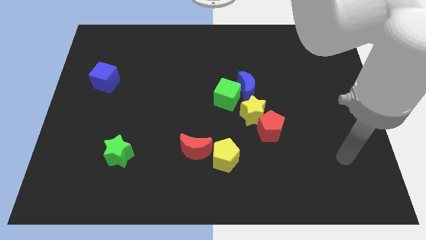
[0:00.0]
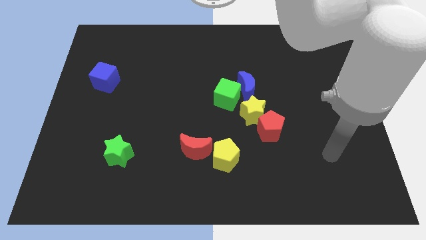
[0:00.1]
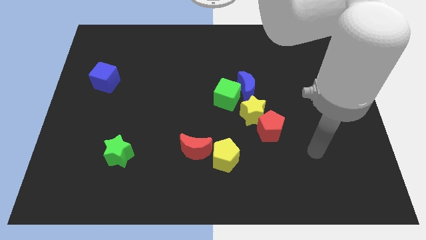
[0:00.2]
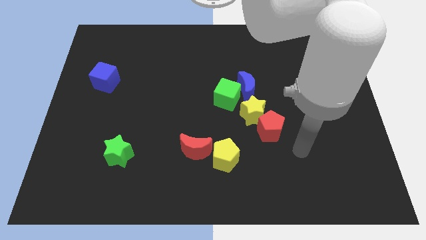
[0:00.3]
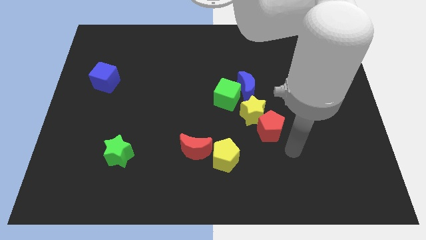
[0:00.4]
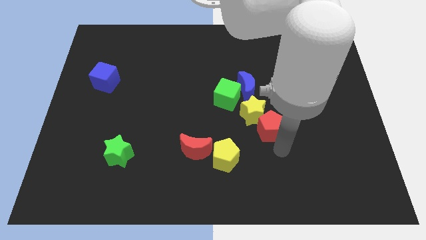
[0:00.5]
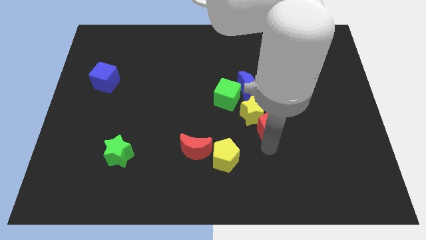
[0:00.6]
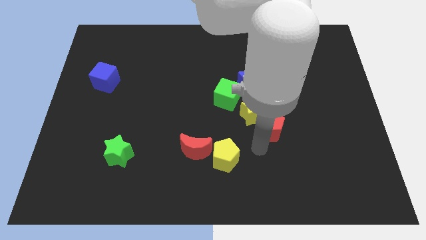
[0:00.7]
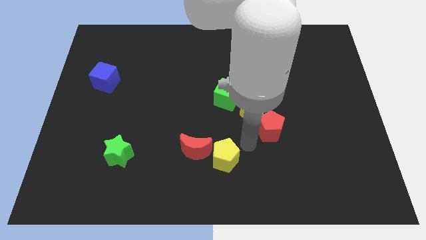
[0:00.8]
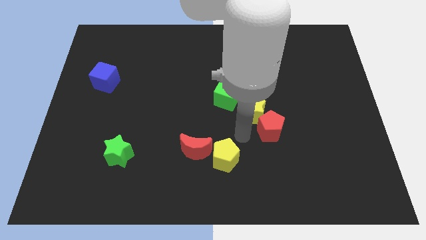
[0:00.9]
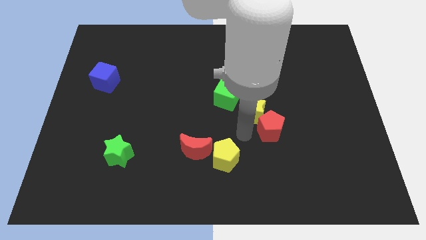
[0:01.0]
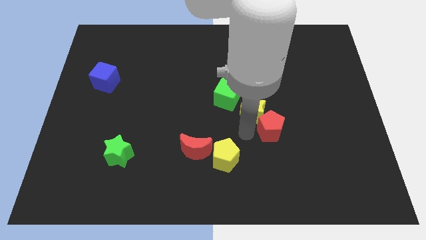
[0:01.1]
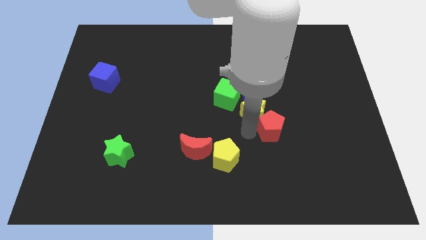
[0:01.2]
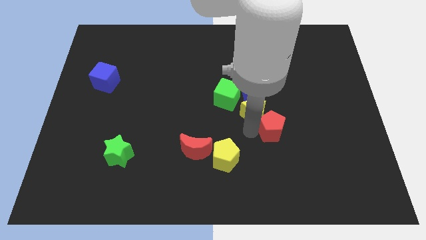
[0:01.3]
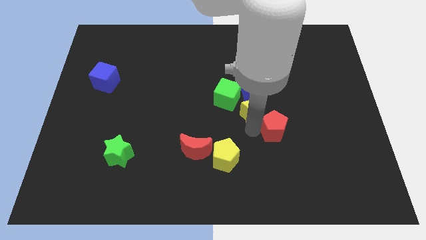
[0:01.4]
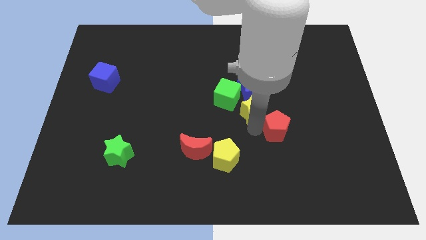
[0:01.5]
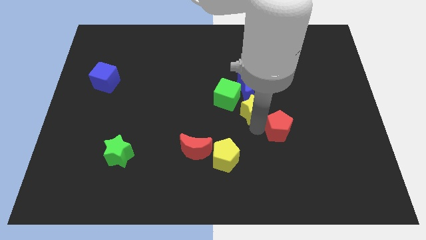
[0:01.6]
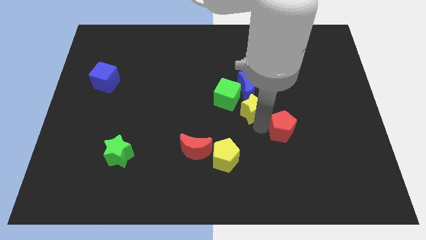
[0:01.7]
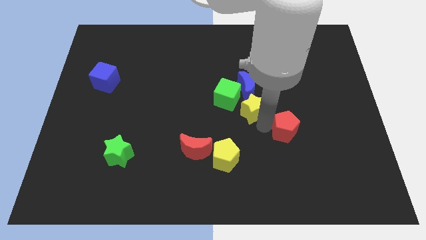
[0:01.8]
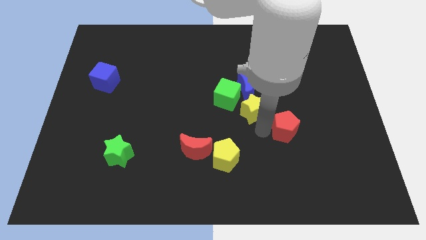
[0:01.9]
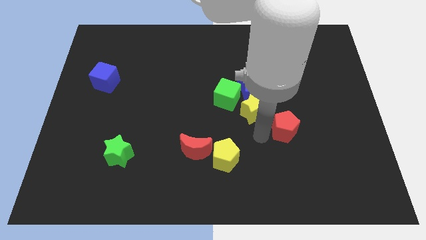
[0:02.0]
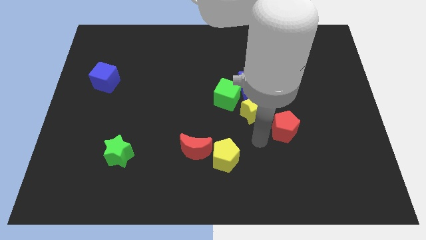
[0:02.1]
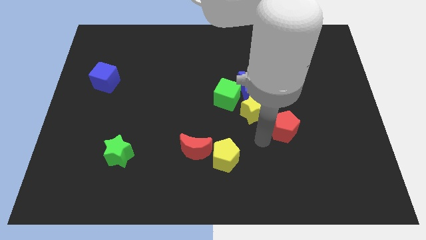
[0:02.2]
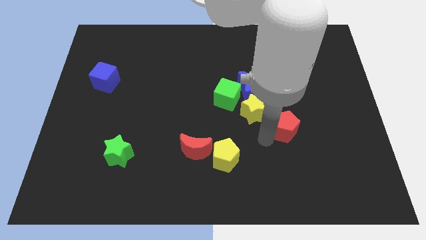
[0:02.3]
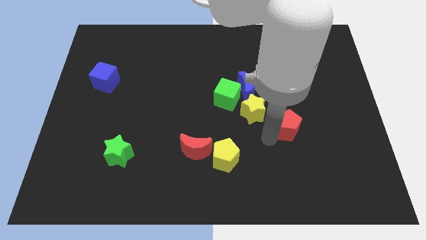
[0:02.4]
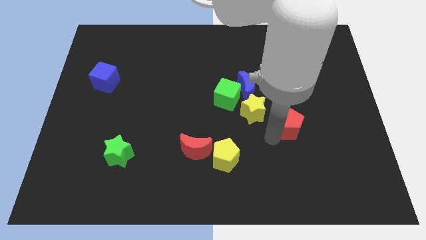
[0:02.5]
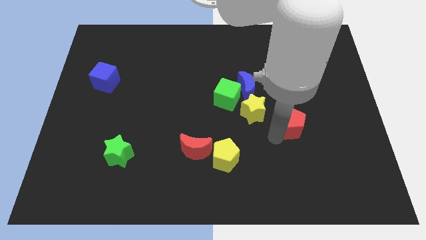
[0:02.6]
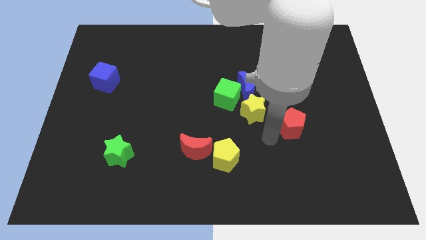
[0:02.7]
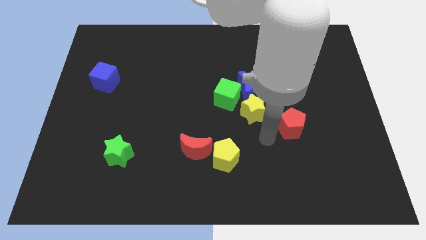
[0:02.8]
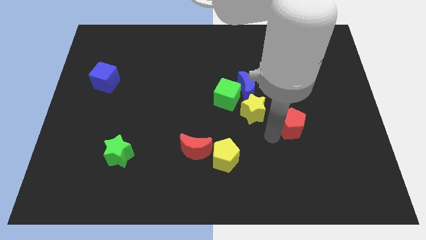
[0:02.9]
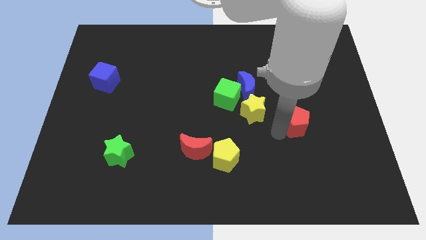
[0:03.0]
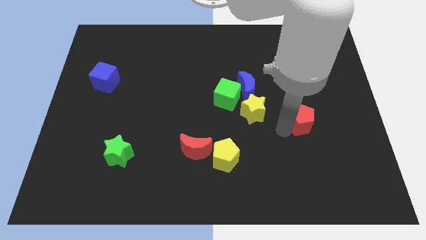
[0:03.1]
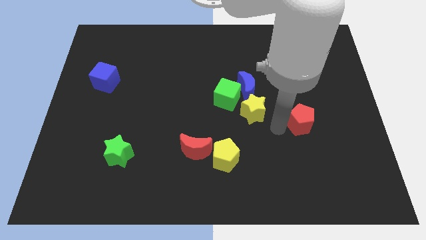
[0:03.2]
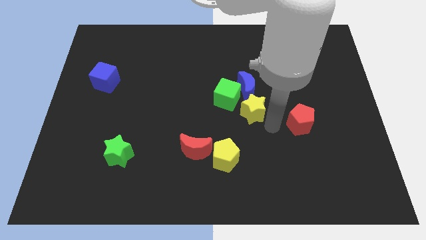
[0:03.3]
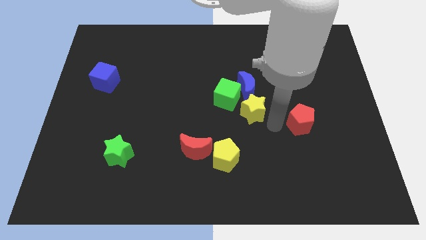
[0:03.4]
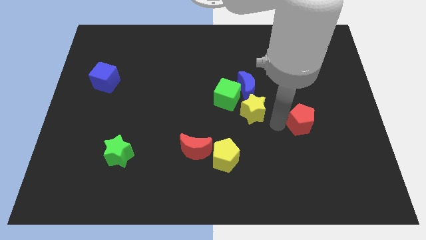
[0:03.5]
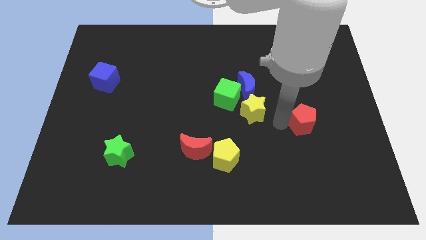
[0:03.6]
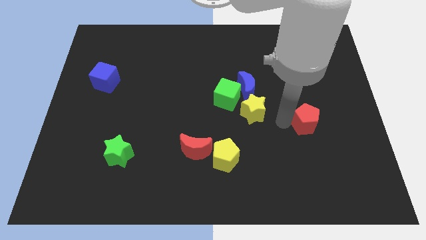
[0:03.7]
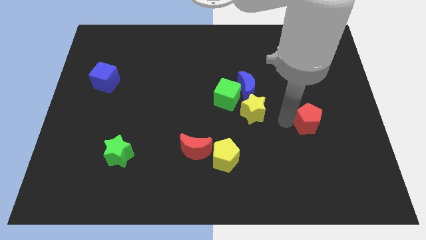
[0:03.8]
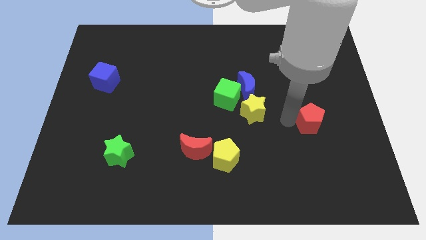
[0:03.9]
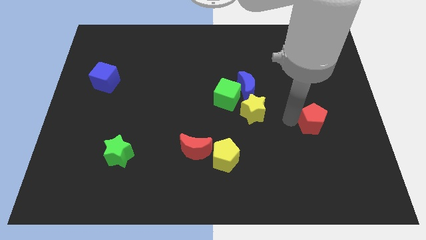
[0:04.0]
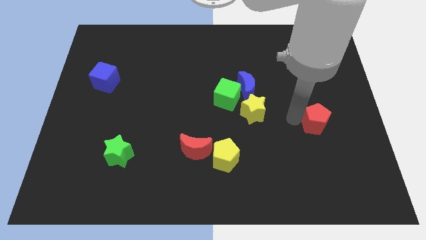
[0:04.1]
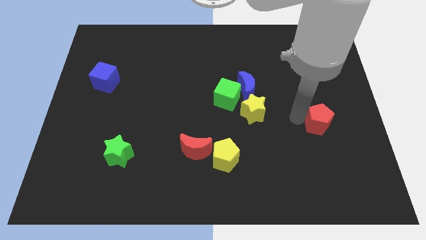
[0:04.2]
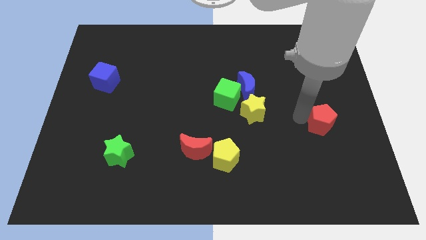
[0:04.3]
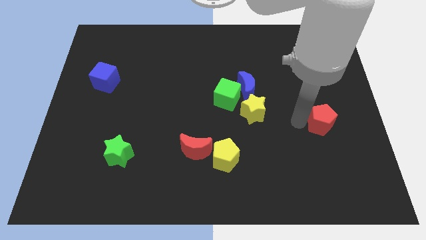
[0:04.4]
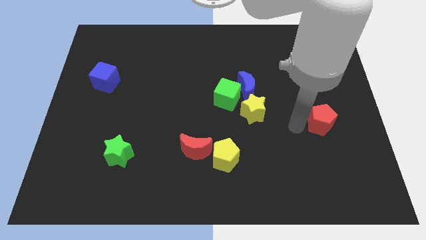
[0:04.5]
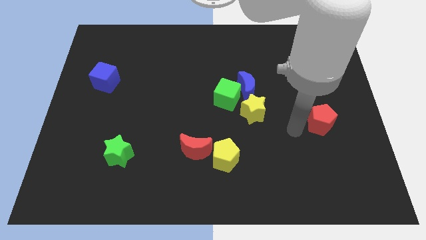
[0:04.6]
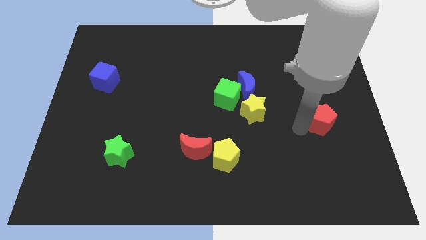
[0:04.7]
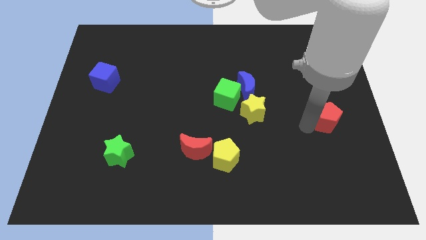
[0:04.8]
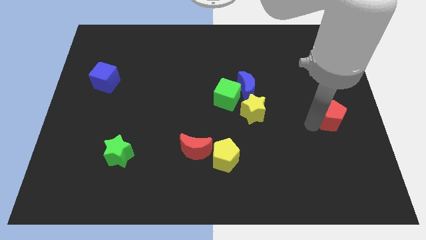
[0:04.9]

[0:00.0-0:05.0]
move the red pentagon to the right side of the board

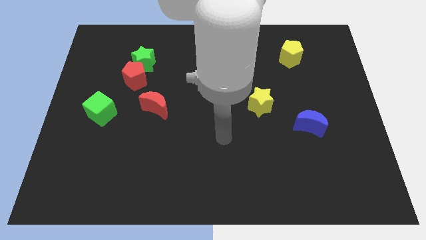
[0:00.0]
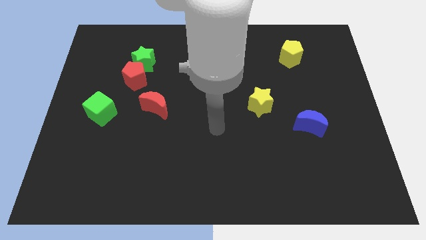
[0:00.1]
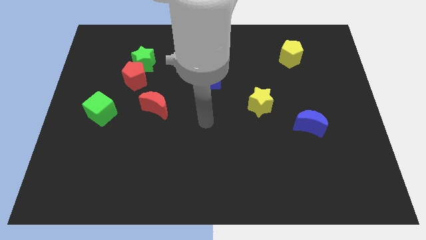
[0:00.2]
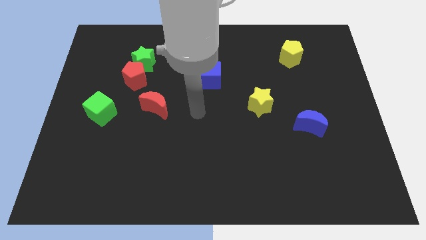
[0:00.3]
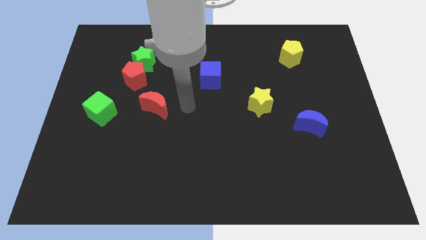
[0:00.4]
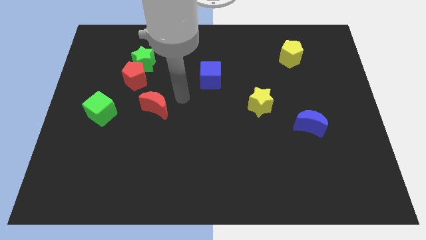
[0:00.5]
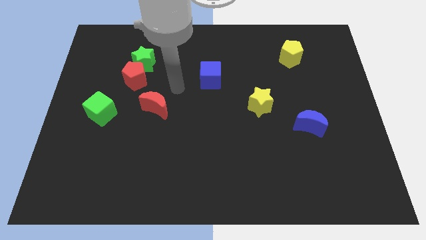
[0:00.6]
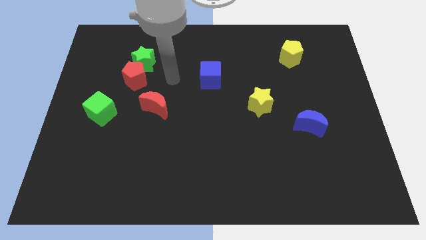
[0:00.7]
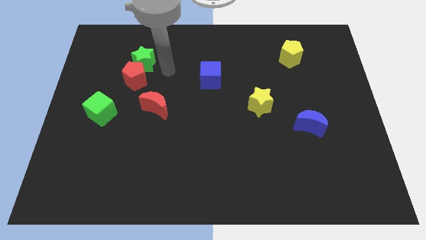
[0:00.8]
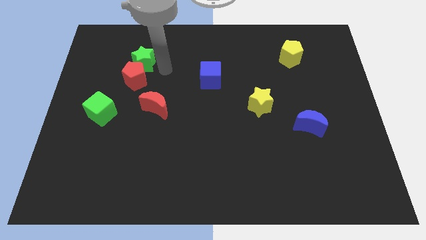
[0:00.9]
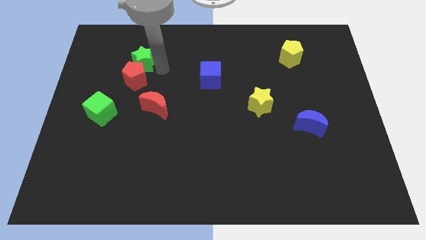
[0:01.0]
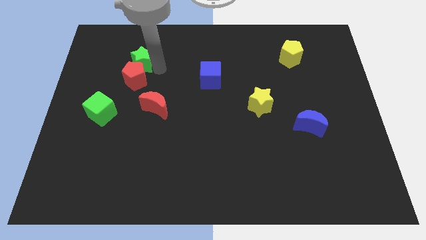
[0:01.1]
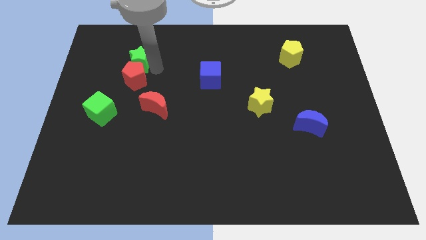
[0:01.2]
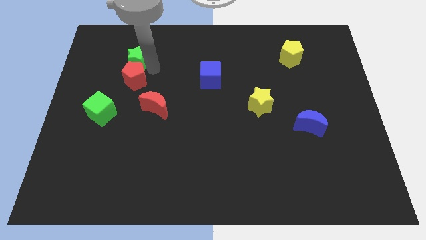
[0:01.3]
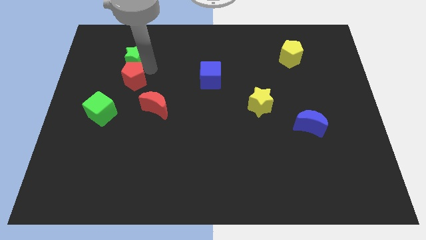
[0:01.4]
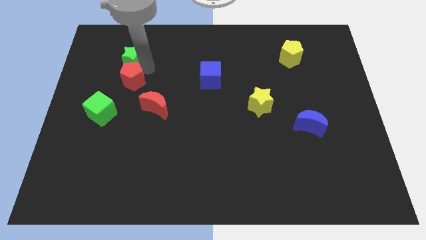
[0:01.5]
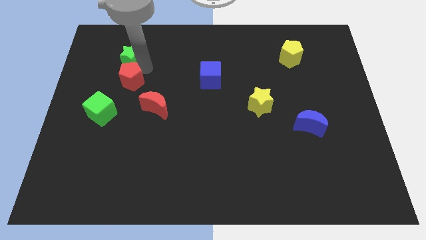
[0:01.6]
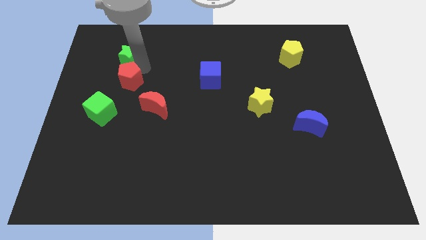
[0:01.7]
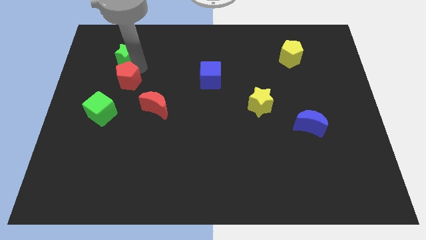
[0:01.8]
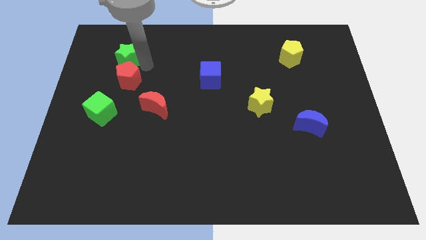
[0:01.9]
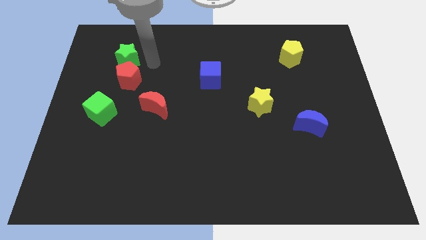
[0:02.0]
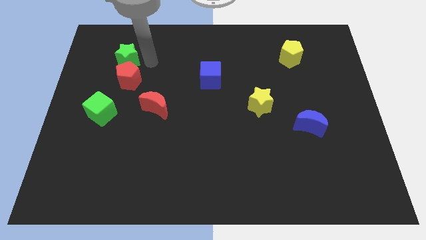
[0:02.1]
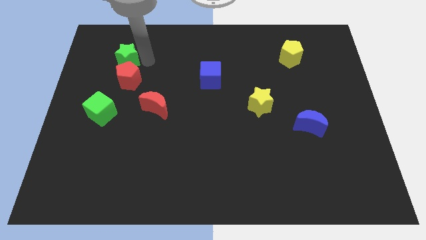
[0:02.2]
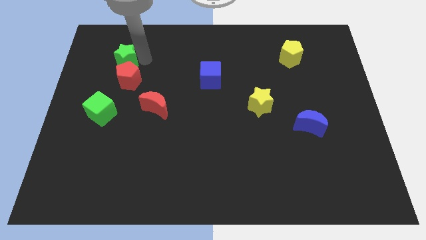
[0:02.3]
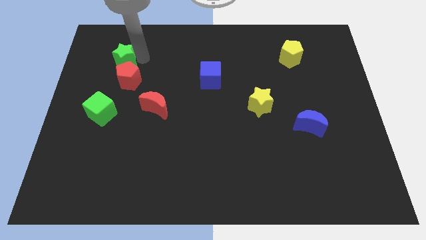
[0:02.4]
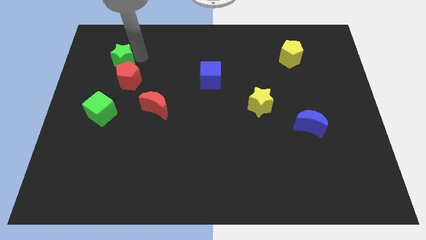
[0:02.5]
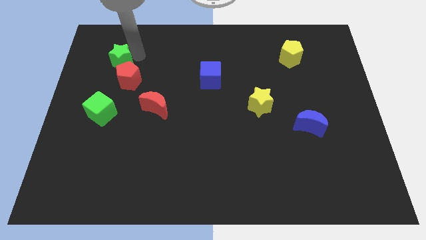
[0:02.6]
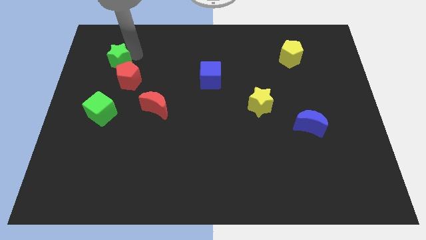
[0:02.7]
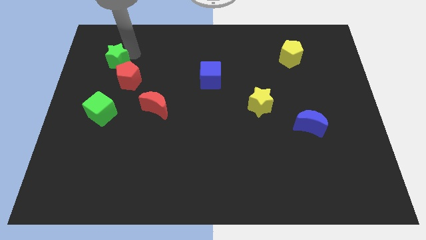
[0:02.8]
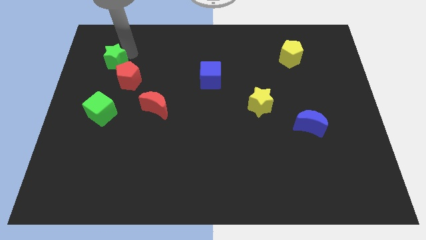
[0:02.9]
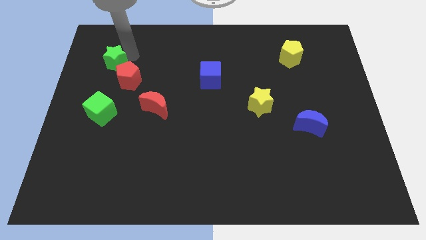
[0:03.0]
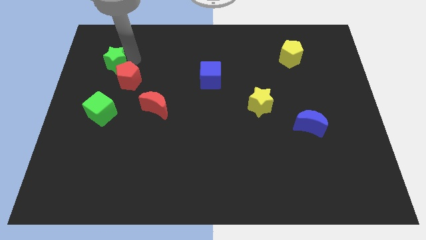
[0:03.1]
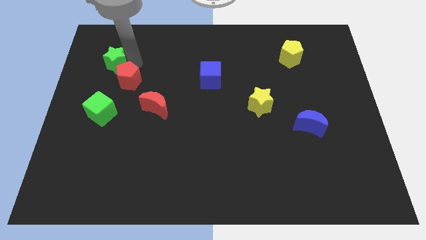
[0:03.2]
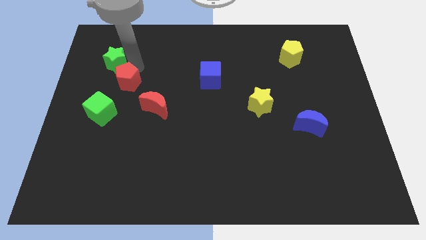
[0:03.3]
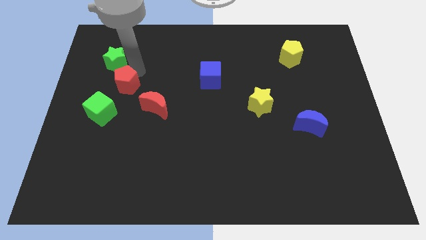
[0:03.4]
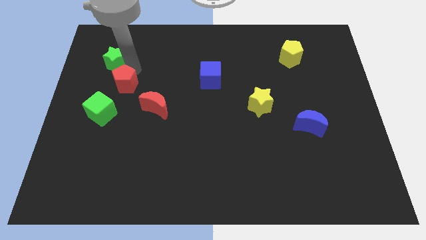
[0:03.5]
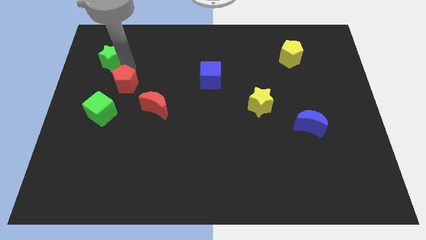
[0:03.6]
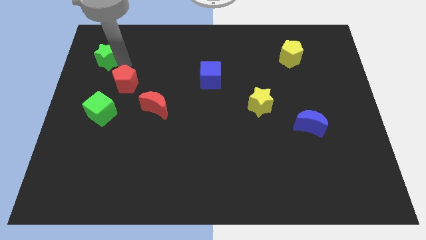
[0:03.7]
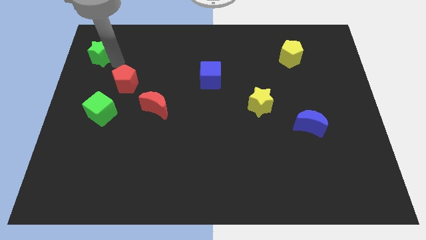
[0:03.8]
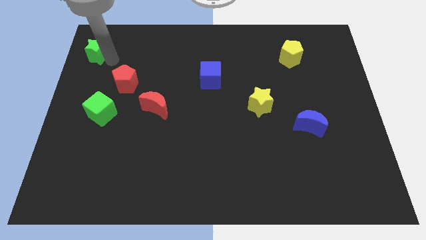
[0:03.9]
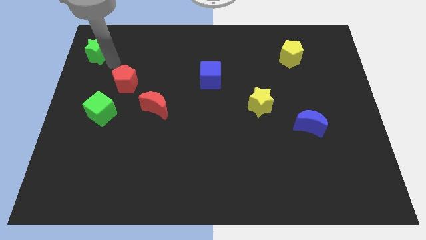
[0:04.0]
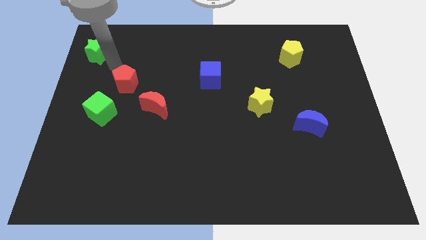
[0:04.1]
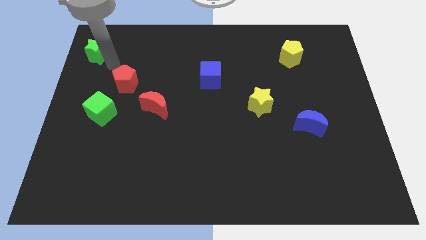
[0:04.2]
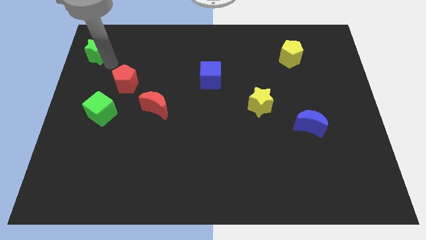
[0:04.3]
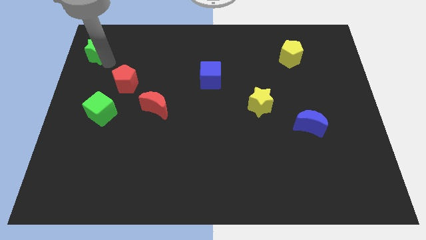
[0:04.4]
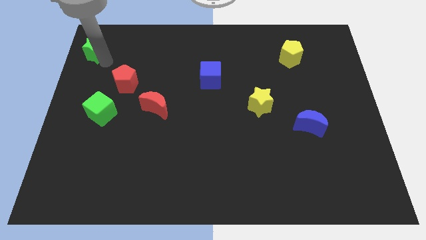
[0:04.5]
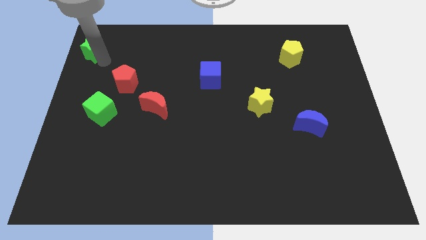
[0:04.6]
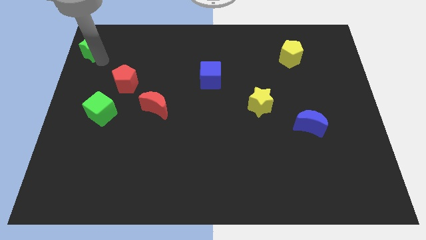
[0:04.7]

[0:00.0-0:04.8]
put the green star to the top left of the board
